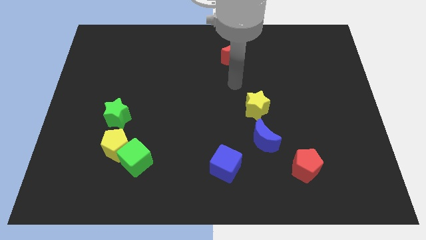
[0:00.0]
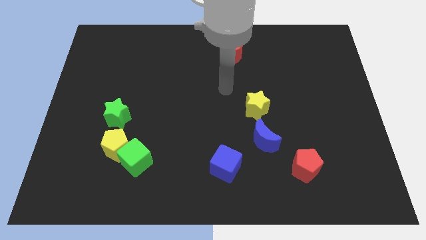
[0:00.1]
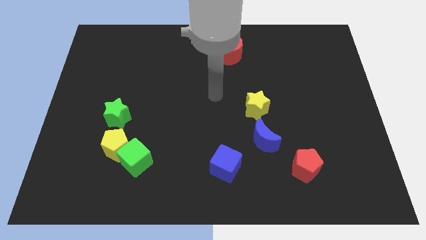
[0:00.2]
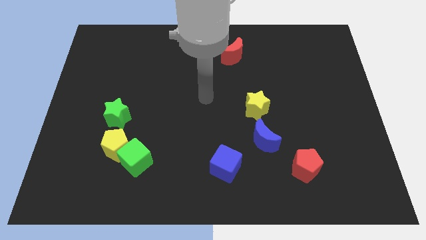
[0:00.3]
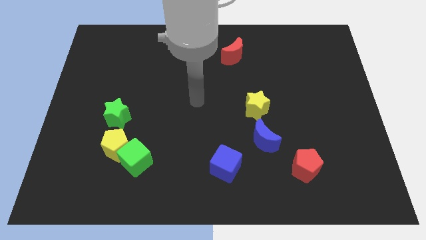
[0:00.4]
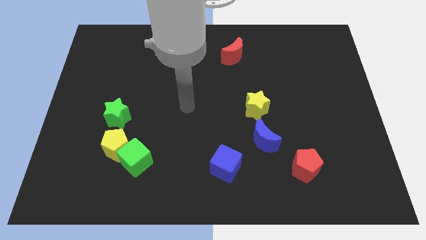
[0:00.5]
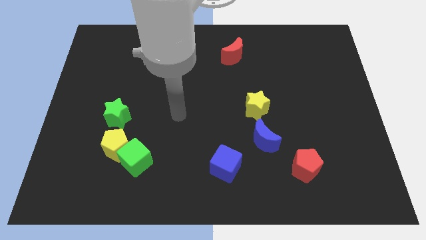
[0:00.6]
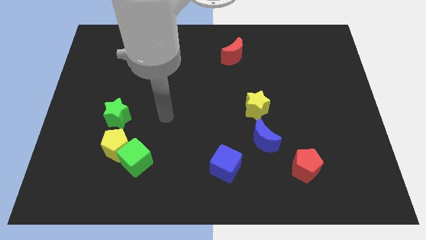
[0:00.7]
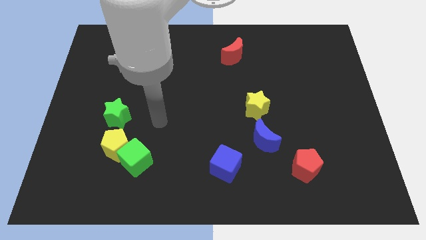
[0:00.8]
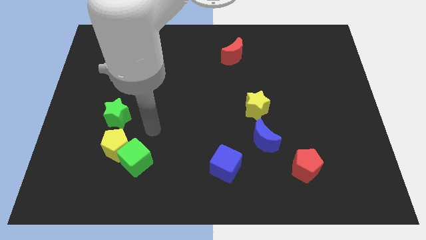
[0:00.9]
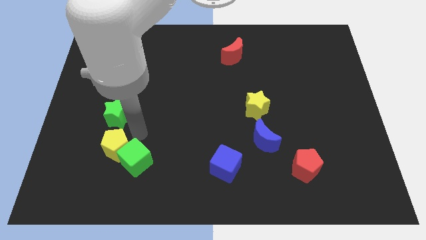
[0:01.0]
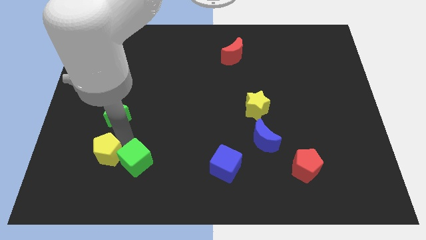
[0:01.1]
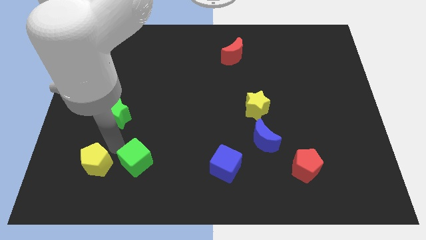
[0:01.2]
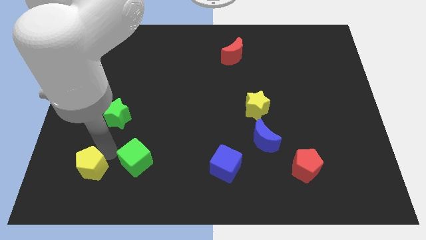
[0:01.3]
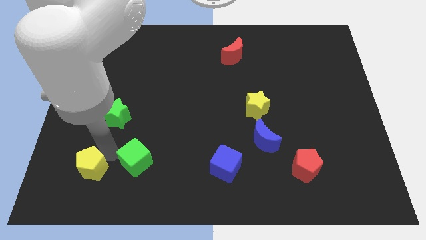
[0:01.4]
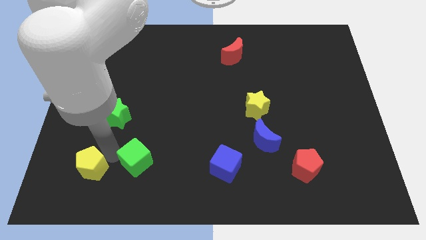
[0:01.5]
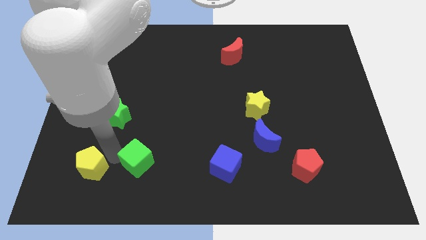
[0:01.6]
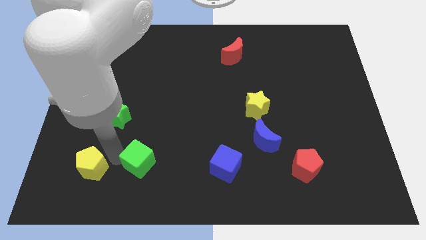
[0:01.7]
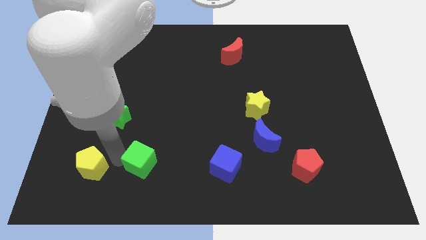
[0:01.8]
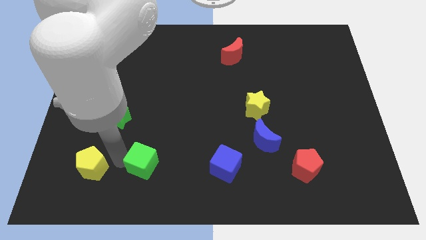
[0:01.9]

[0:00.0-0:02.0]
pull the green cube apart from the yellow pentagon

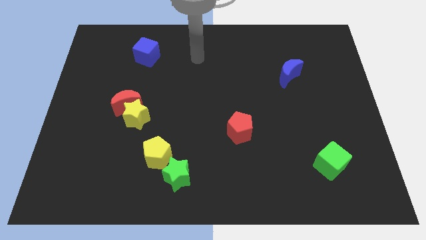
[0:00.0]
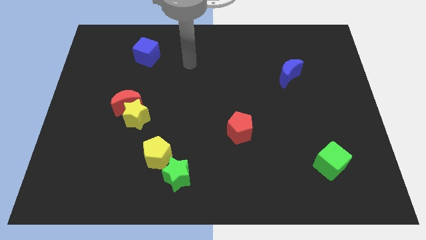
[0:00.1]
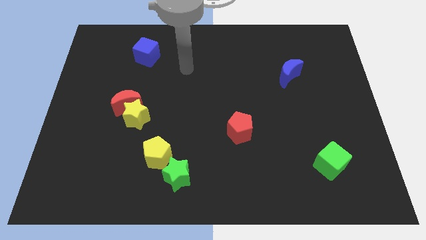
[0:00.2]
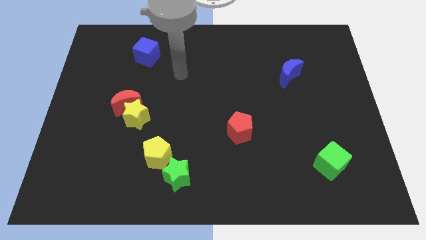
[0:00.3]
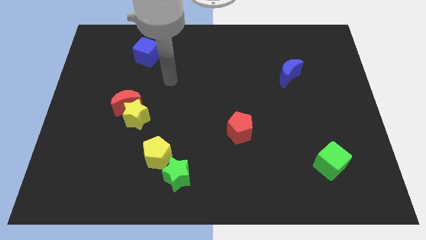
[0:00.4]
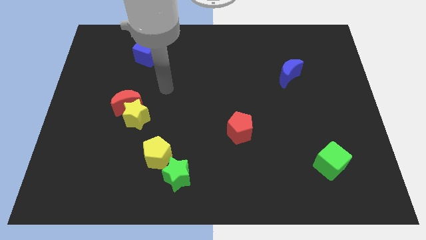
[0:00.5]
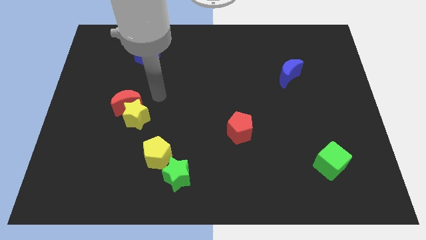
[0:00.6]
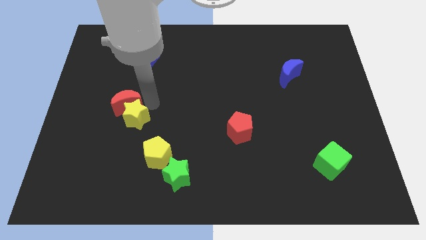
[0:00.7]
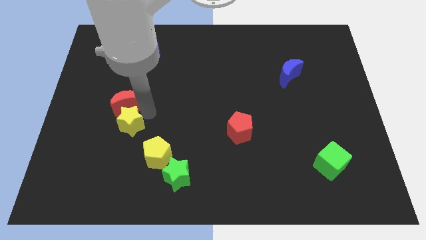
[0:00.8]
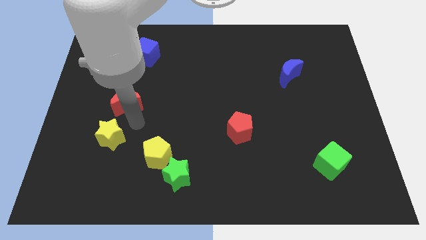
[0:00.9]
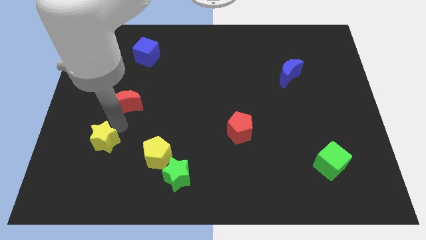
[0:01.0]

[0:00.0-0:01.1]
pull the red moon apart from the yellow star

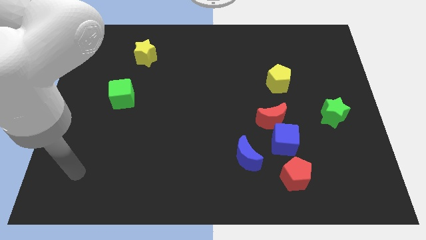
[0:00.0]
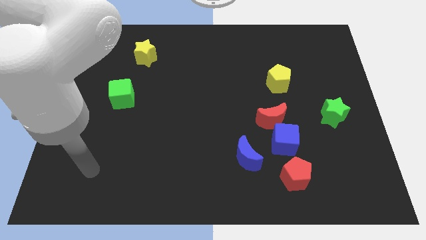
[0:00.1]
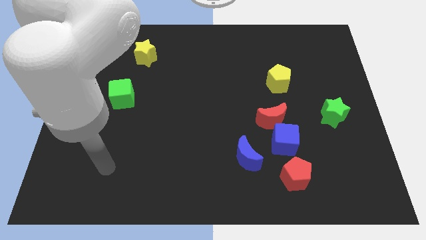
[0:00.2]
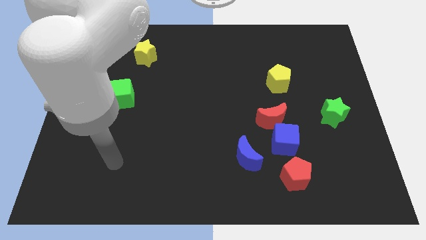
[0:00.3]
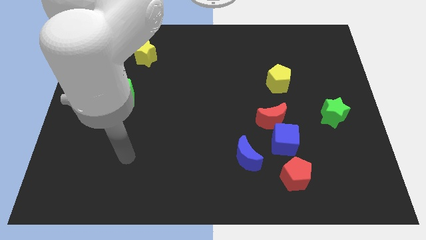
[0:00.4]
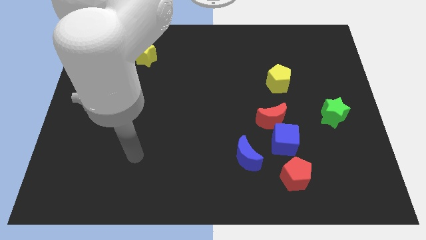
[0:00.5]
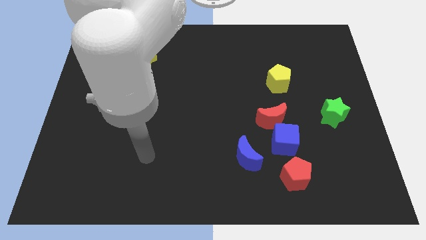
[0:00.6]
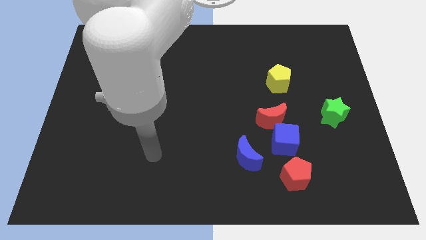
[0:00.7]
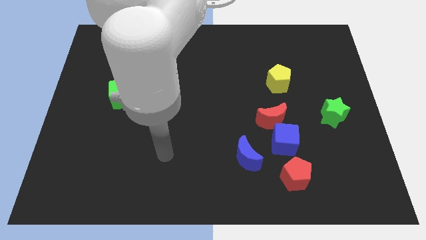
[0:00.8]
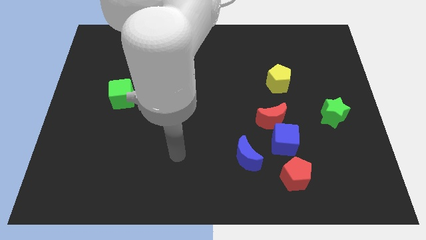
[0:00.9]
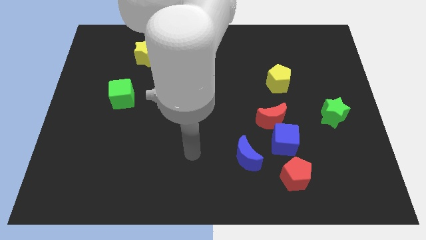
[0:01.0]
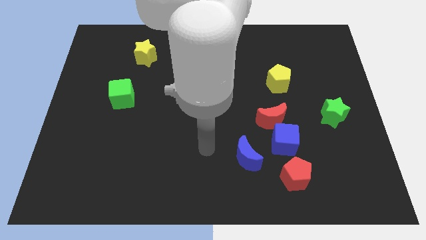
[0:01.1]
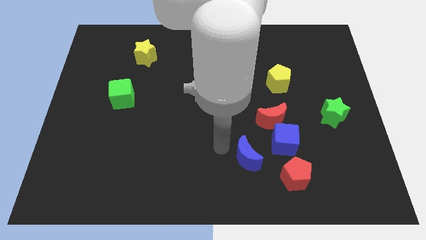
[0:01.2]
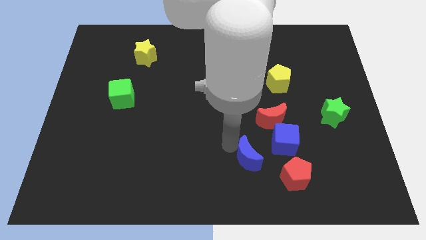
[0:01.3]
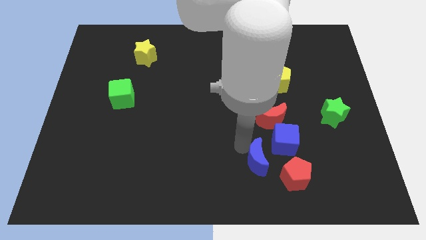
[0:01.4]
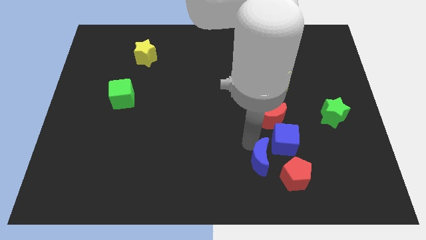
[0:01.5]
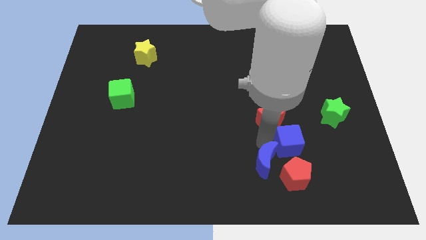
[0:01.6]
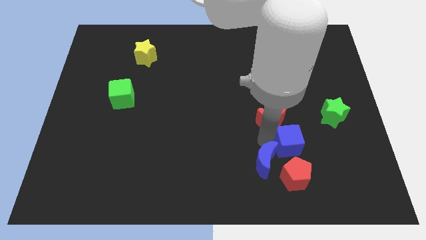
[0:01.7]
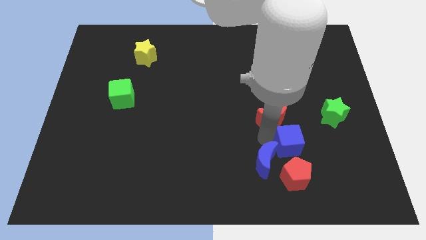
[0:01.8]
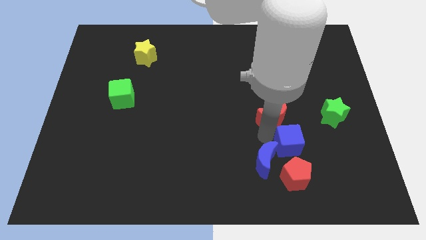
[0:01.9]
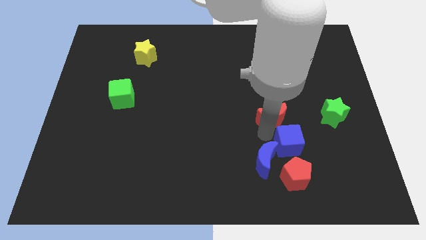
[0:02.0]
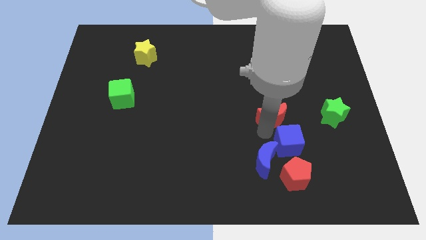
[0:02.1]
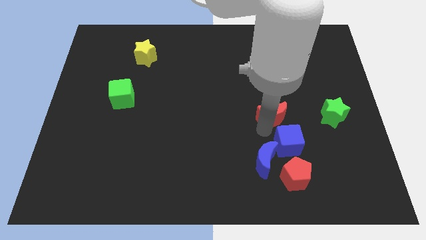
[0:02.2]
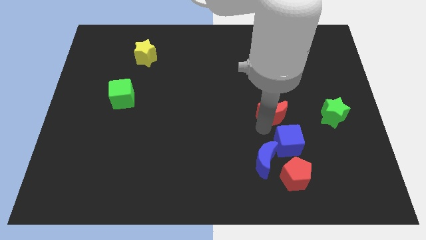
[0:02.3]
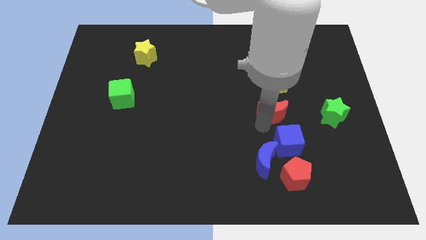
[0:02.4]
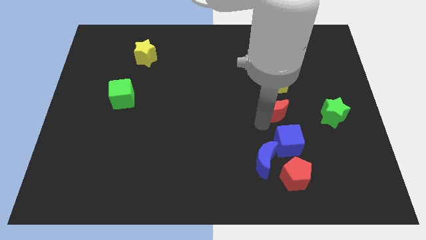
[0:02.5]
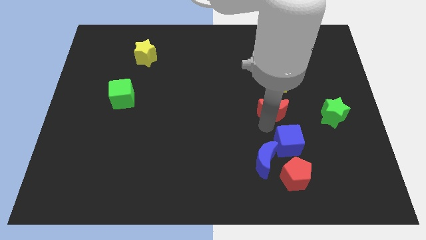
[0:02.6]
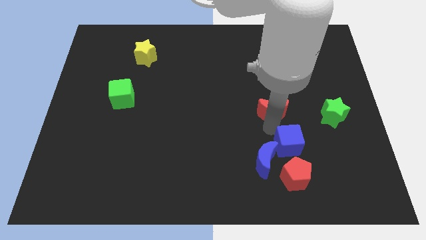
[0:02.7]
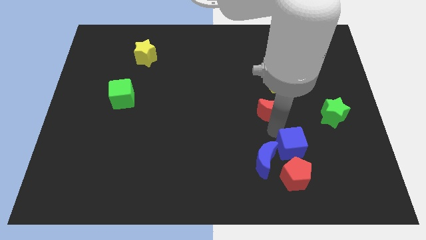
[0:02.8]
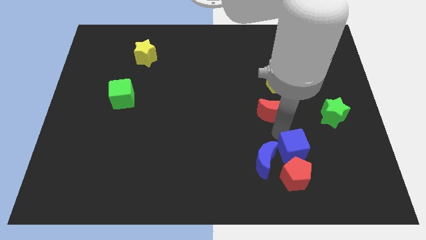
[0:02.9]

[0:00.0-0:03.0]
pull the red moon apart from the blue cube

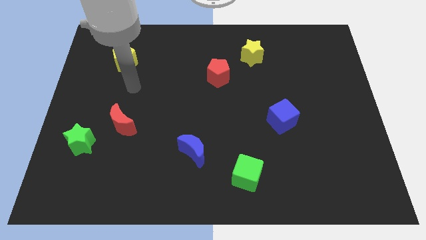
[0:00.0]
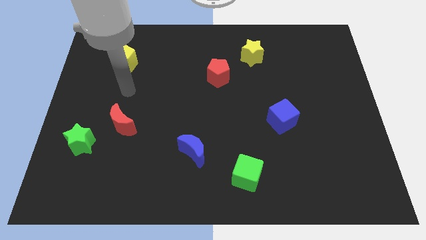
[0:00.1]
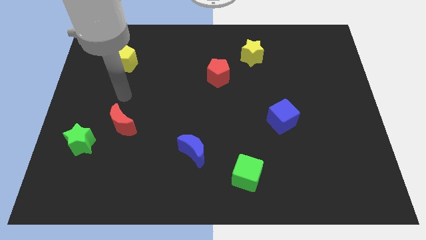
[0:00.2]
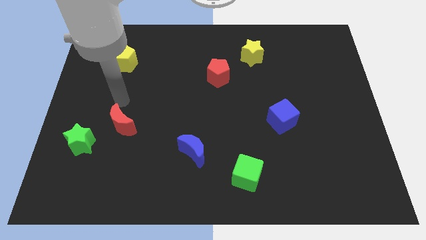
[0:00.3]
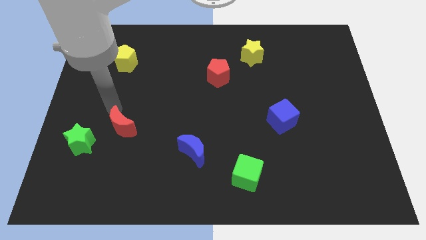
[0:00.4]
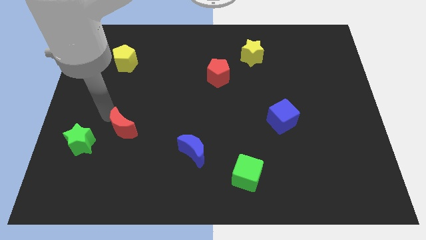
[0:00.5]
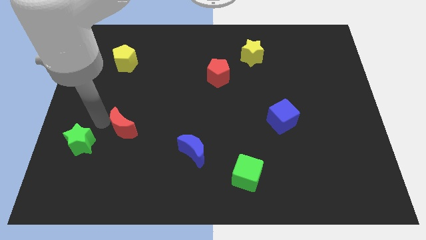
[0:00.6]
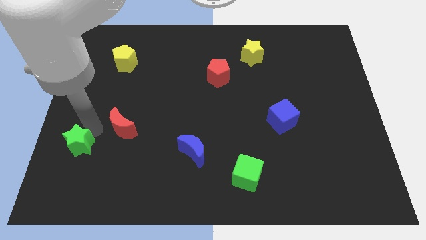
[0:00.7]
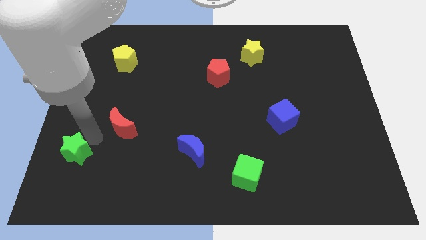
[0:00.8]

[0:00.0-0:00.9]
pull the red moon apart from the green star

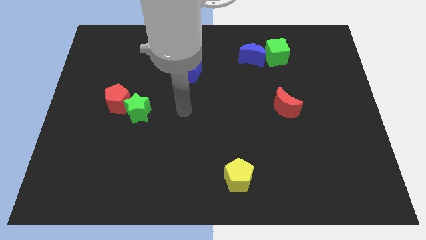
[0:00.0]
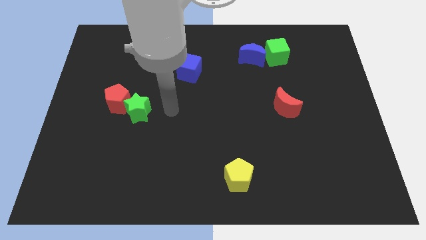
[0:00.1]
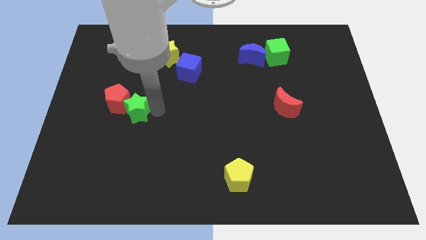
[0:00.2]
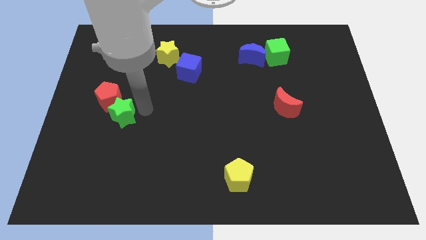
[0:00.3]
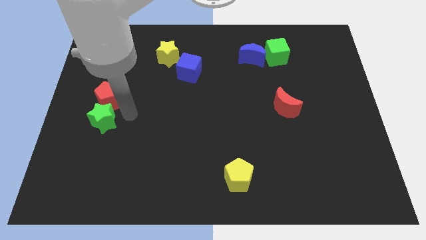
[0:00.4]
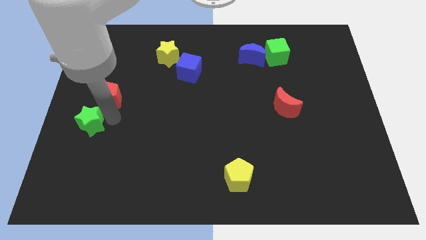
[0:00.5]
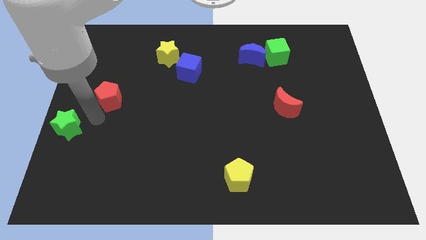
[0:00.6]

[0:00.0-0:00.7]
pull the red pentagon apart from the green star

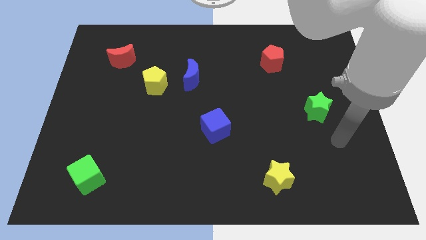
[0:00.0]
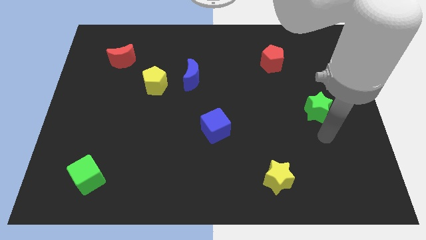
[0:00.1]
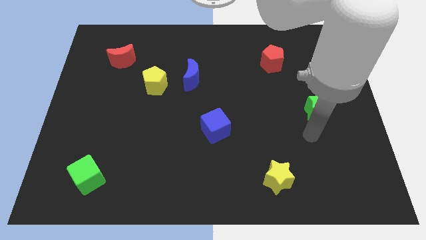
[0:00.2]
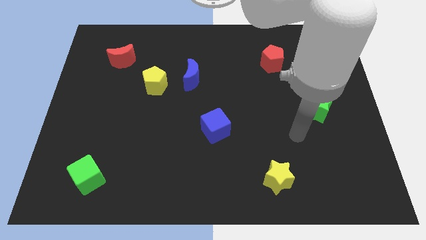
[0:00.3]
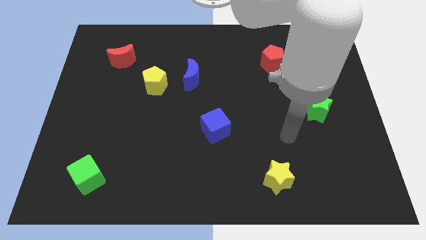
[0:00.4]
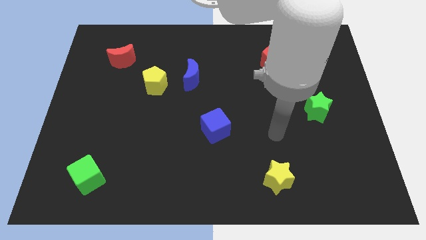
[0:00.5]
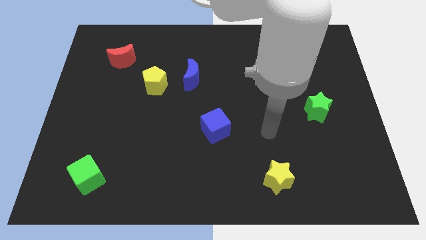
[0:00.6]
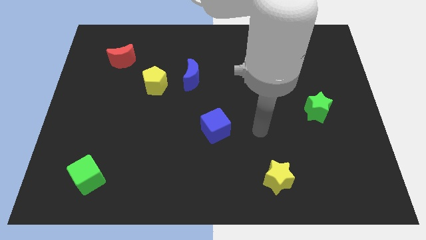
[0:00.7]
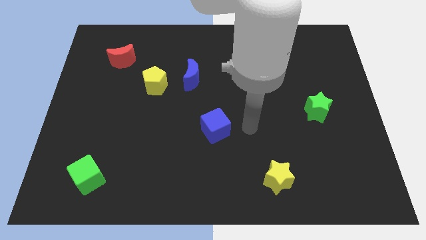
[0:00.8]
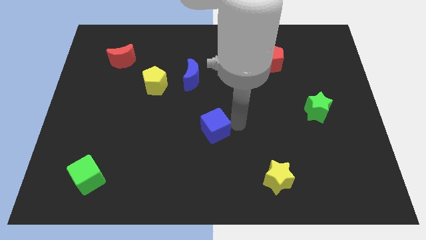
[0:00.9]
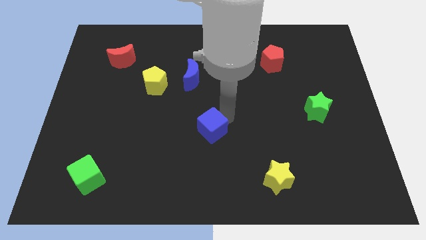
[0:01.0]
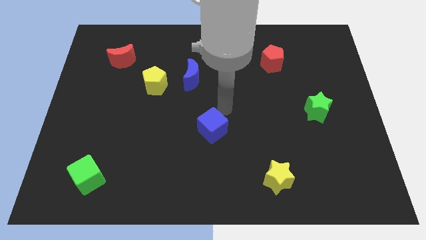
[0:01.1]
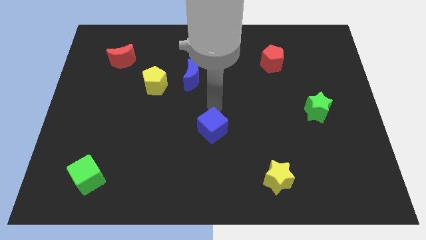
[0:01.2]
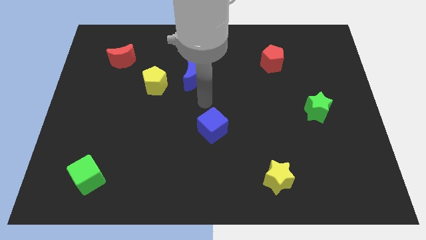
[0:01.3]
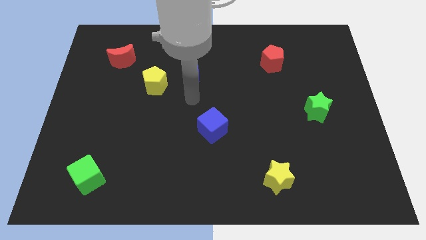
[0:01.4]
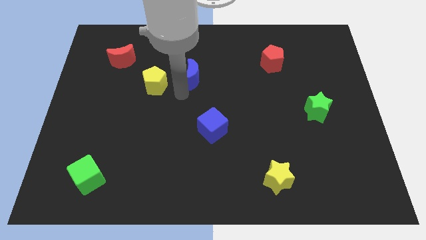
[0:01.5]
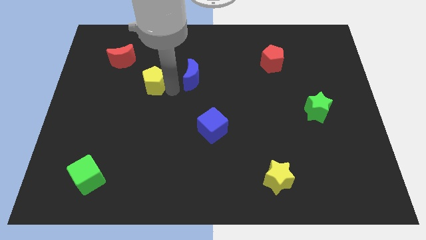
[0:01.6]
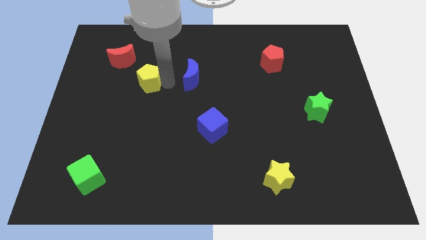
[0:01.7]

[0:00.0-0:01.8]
move the blue moon away from the yellow pentagon
